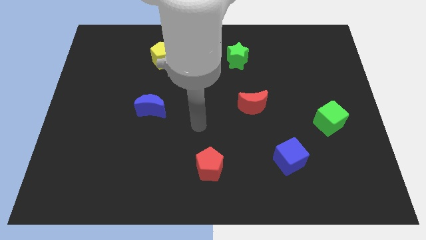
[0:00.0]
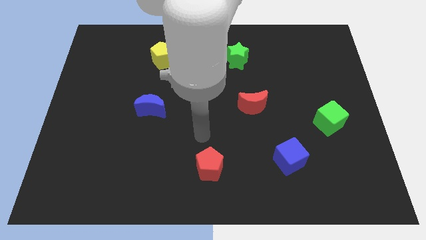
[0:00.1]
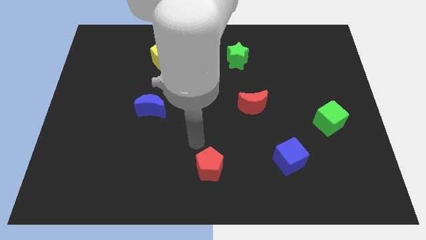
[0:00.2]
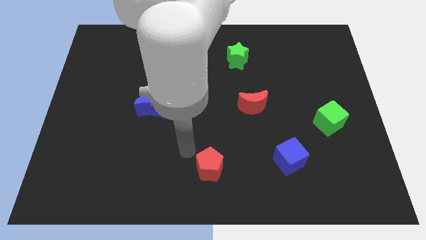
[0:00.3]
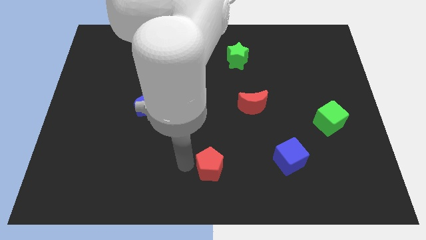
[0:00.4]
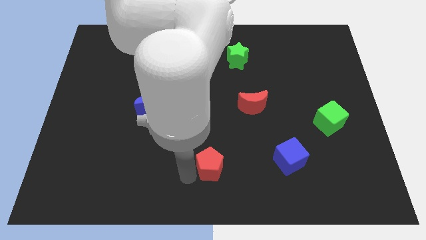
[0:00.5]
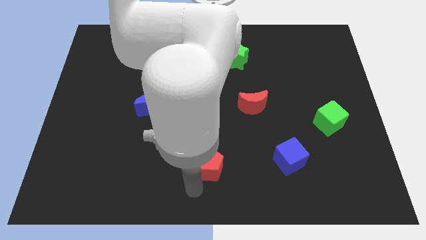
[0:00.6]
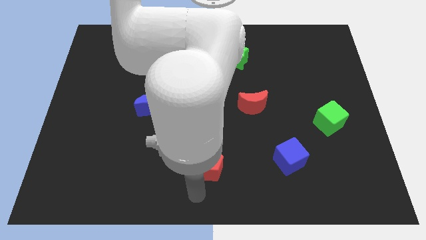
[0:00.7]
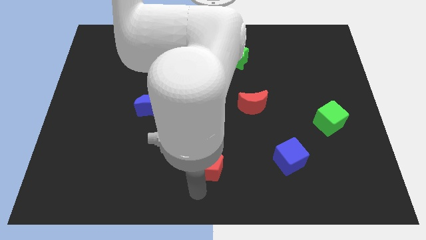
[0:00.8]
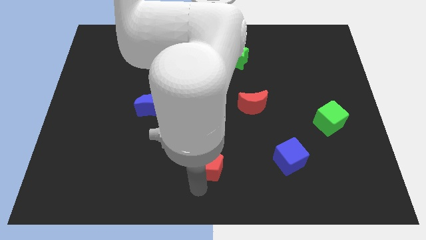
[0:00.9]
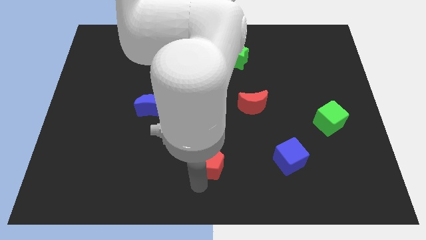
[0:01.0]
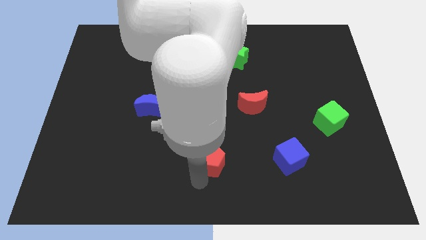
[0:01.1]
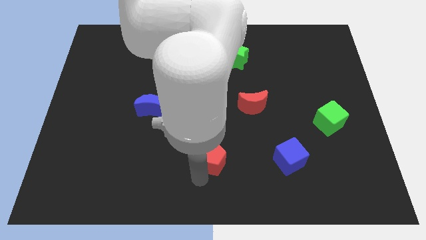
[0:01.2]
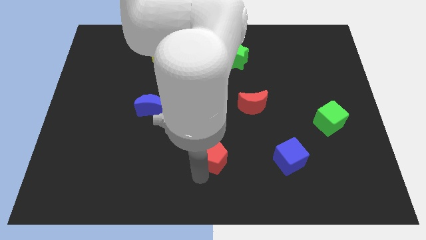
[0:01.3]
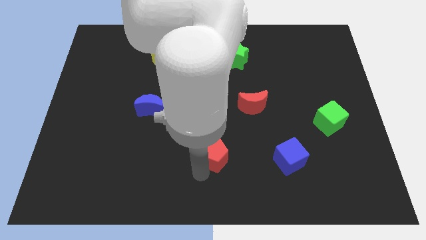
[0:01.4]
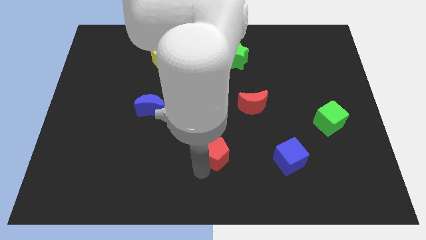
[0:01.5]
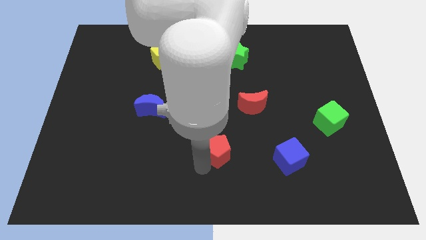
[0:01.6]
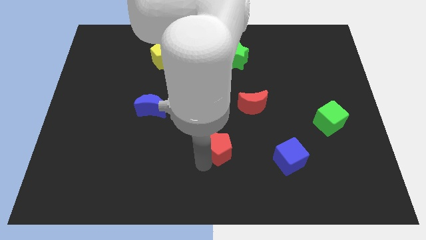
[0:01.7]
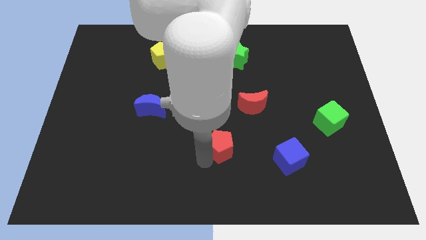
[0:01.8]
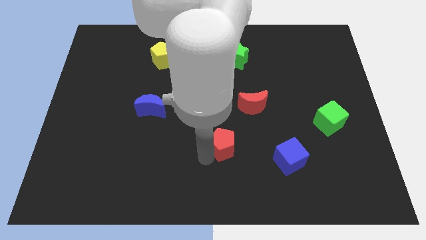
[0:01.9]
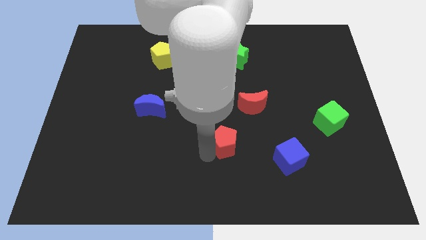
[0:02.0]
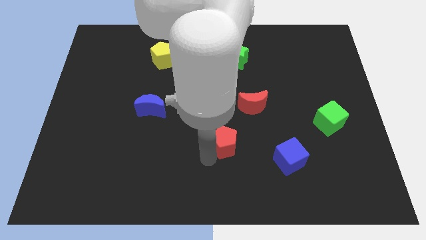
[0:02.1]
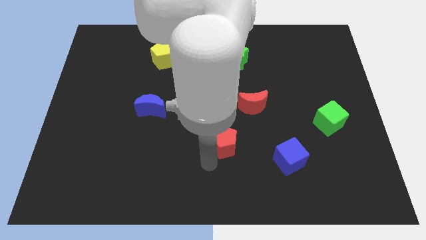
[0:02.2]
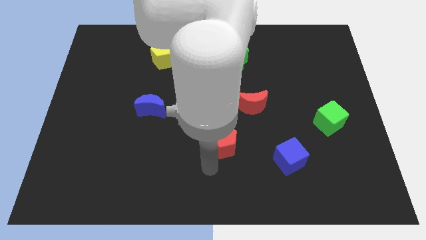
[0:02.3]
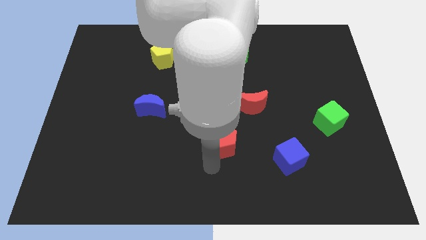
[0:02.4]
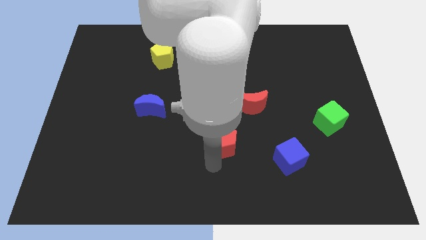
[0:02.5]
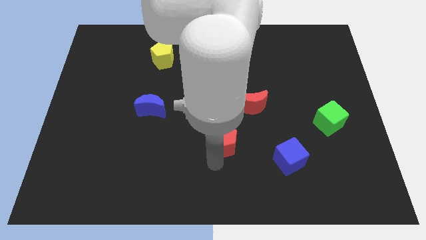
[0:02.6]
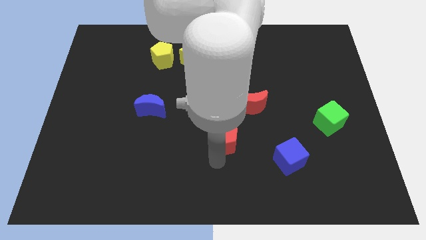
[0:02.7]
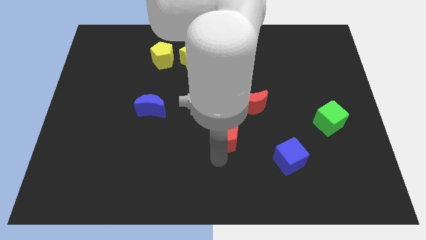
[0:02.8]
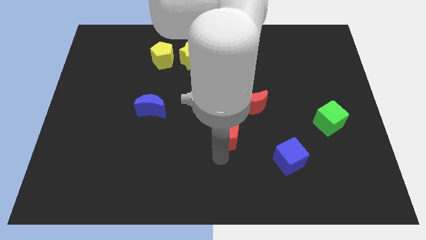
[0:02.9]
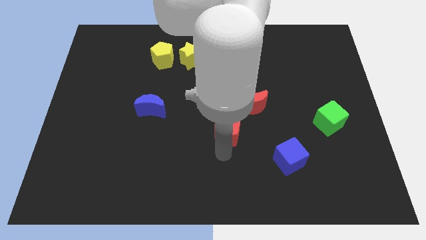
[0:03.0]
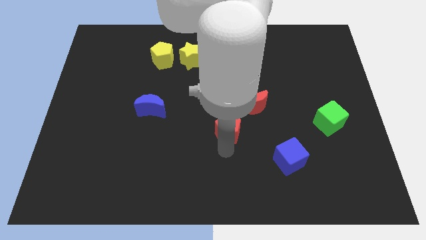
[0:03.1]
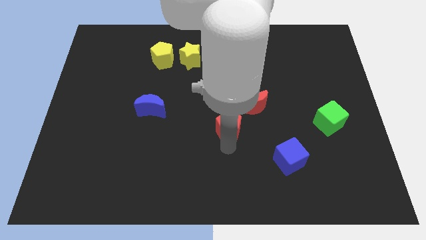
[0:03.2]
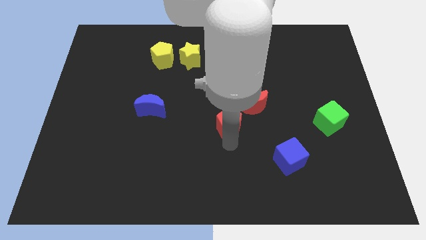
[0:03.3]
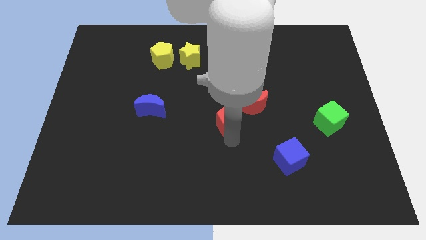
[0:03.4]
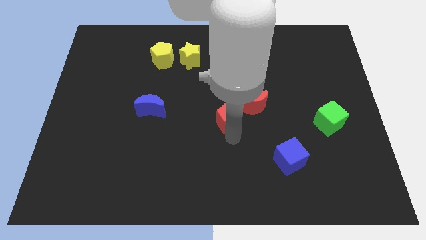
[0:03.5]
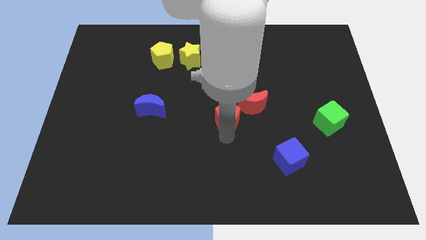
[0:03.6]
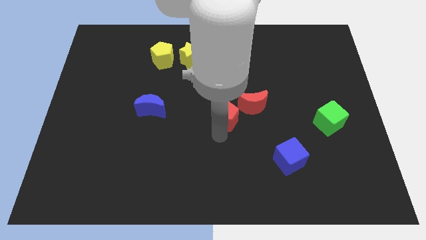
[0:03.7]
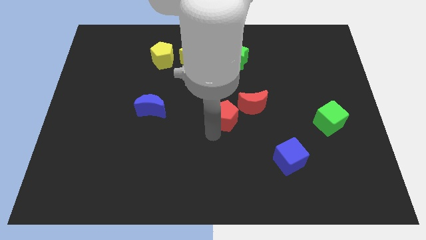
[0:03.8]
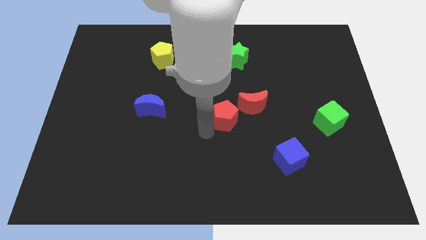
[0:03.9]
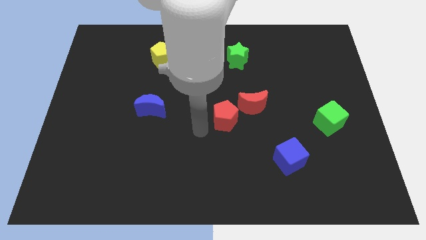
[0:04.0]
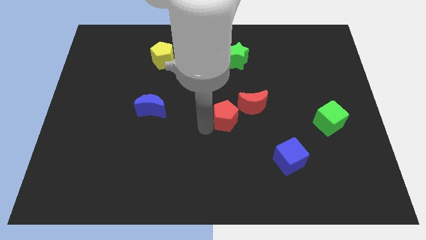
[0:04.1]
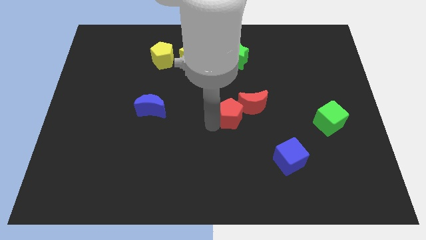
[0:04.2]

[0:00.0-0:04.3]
move the red pentagon close to the red moon

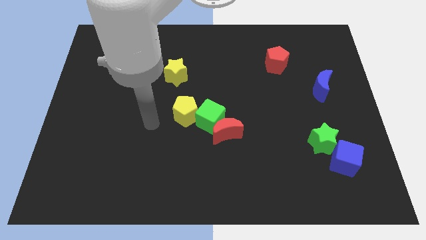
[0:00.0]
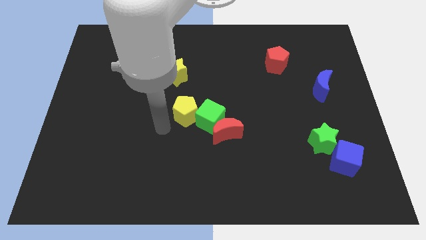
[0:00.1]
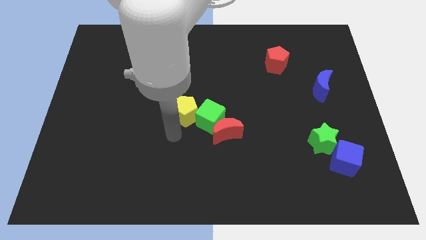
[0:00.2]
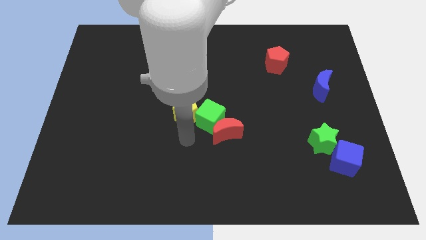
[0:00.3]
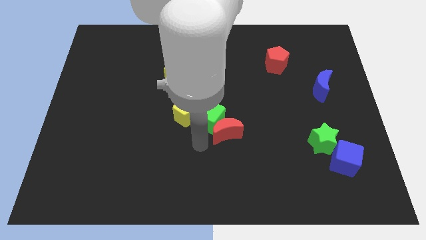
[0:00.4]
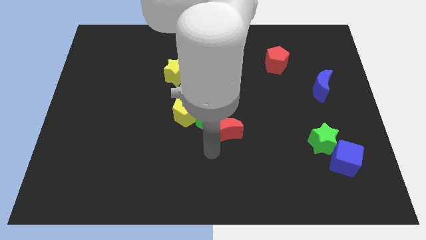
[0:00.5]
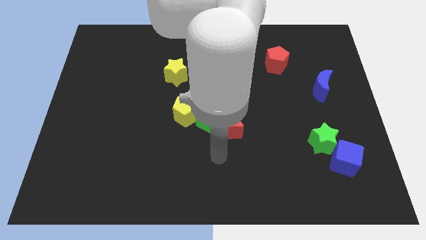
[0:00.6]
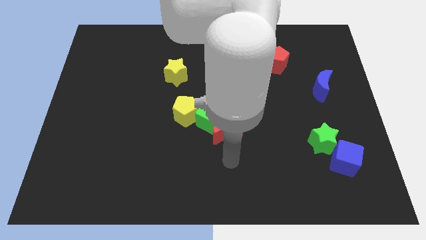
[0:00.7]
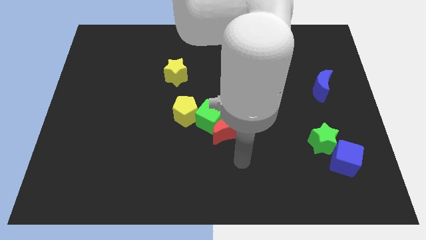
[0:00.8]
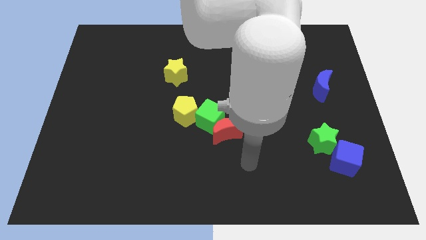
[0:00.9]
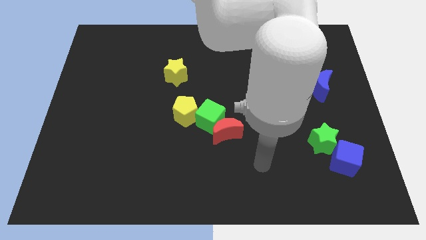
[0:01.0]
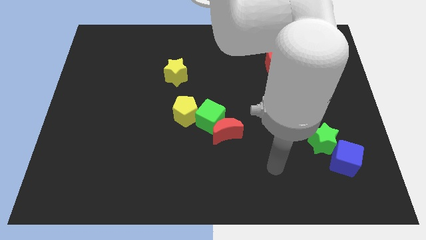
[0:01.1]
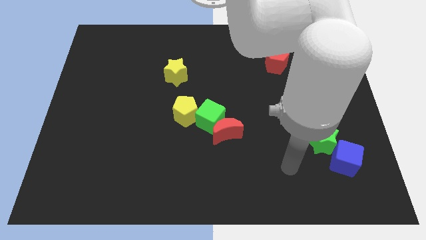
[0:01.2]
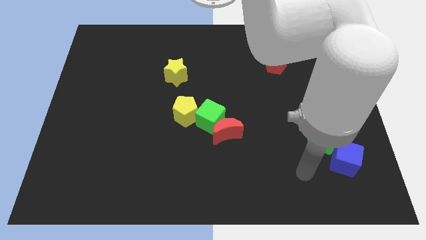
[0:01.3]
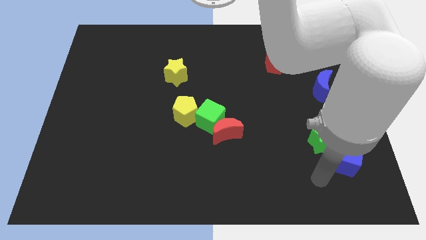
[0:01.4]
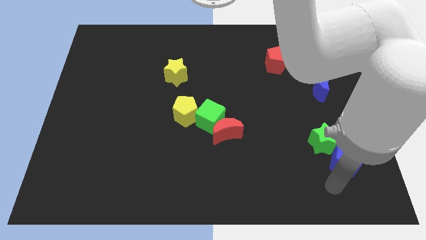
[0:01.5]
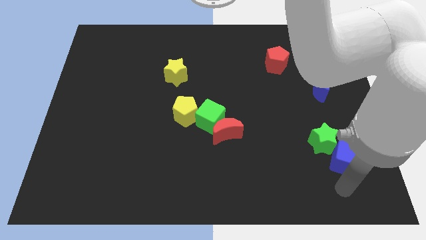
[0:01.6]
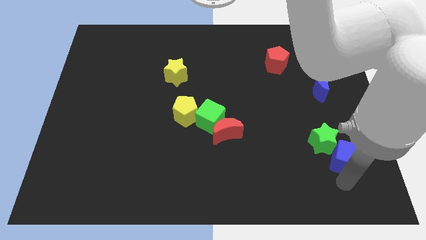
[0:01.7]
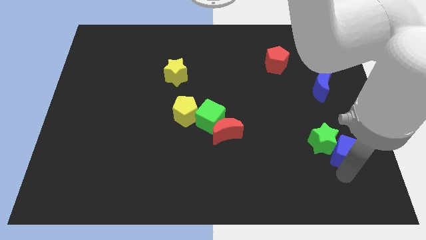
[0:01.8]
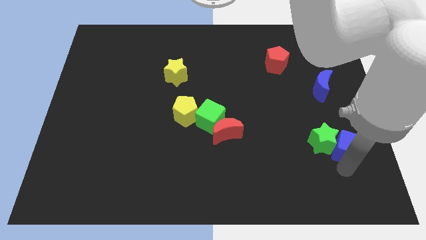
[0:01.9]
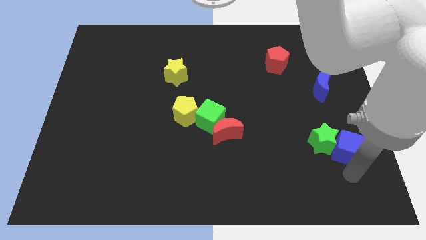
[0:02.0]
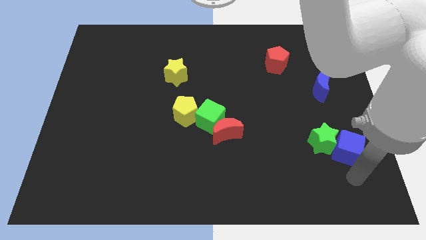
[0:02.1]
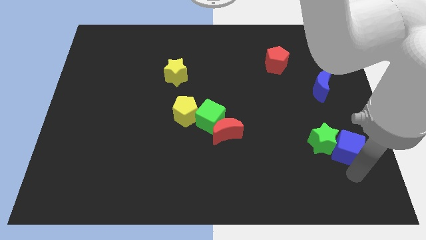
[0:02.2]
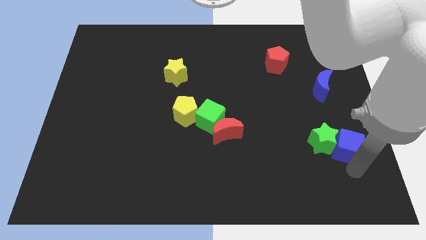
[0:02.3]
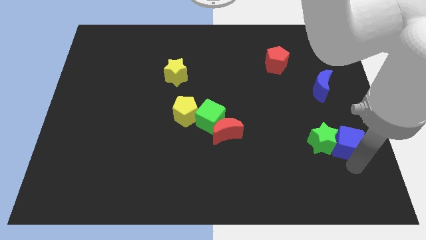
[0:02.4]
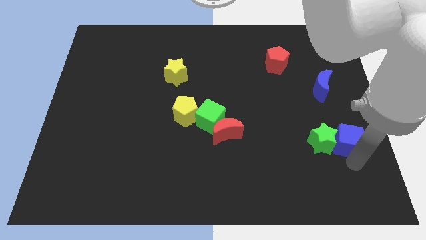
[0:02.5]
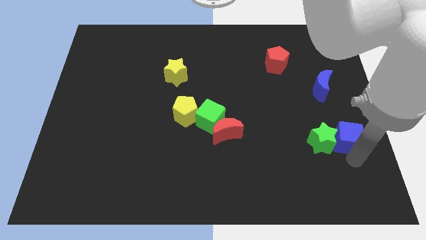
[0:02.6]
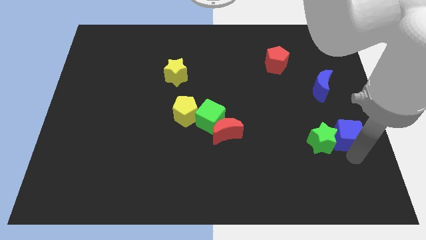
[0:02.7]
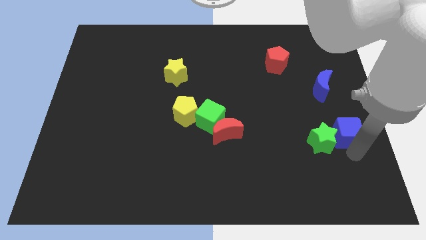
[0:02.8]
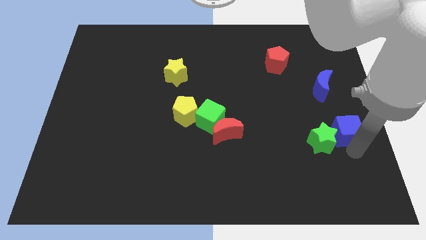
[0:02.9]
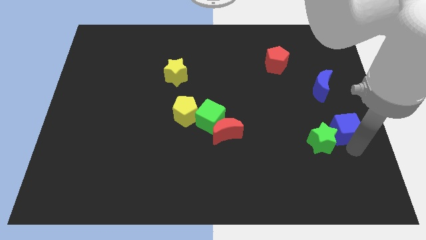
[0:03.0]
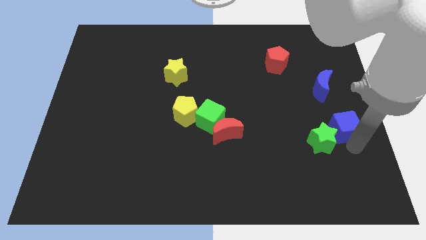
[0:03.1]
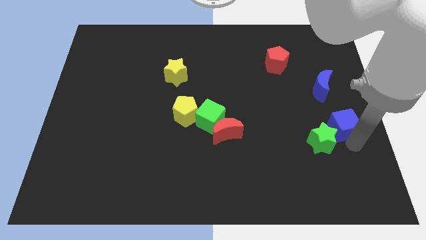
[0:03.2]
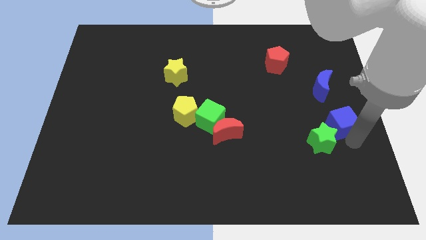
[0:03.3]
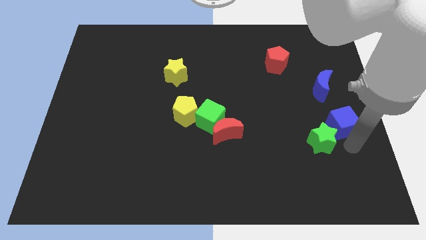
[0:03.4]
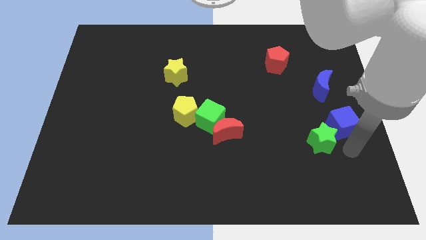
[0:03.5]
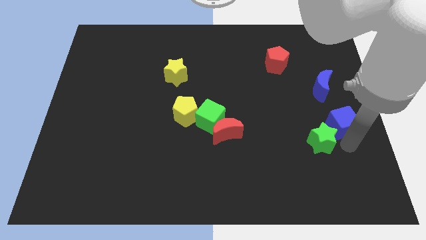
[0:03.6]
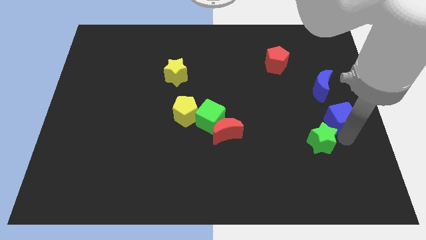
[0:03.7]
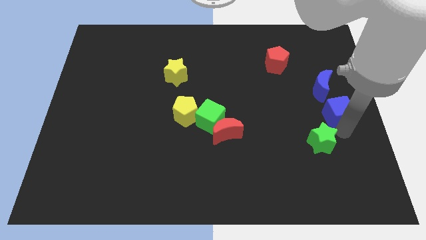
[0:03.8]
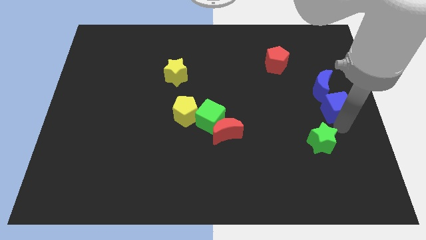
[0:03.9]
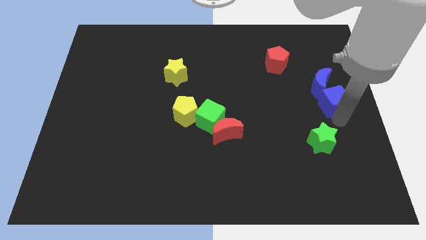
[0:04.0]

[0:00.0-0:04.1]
put the blue cube next to the blue moon
